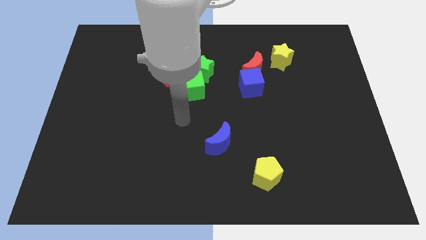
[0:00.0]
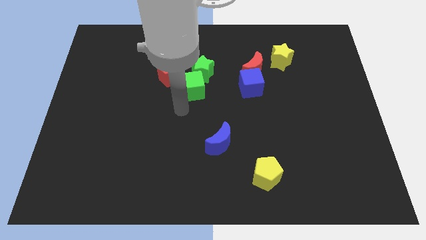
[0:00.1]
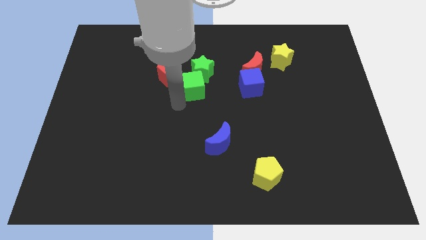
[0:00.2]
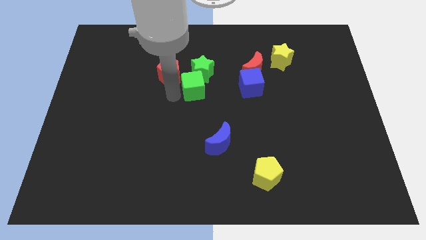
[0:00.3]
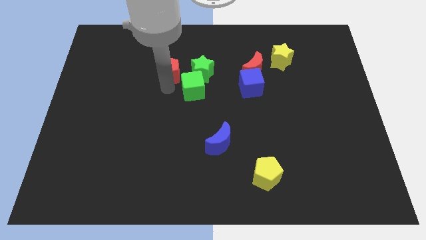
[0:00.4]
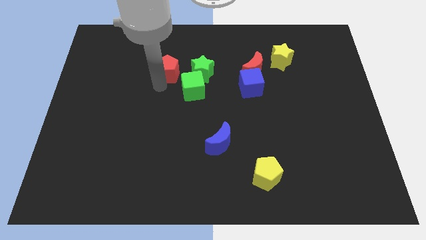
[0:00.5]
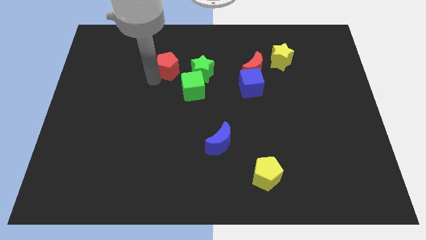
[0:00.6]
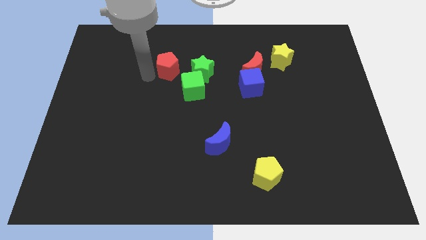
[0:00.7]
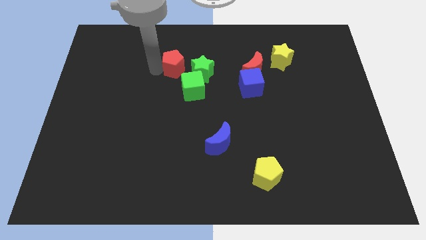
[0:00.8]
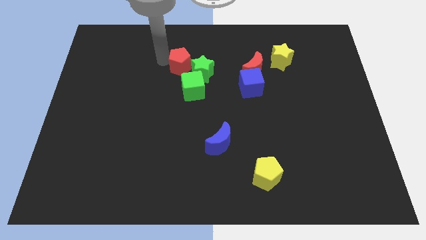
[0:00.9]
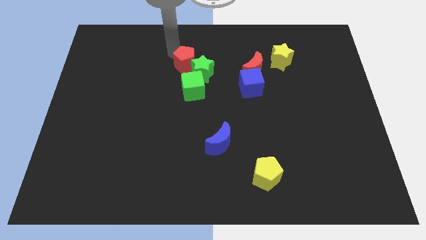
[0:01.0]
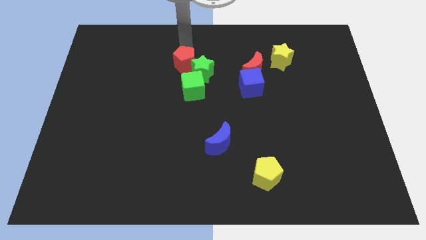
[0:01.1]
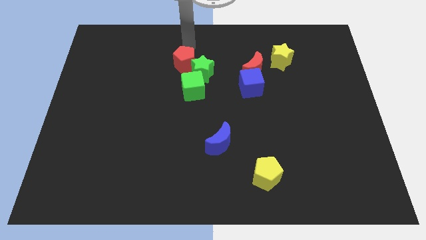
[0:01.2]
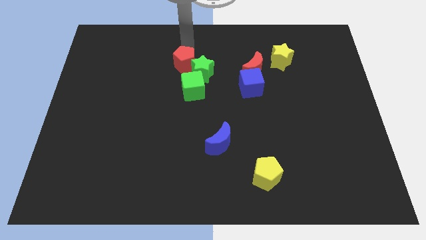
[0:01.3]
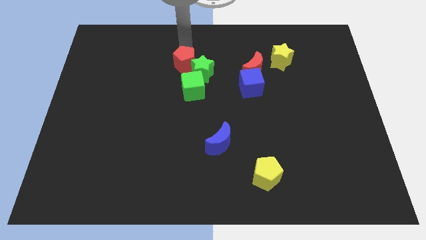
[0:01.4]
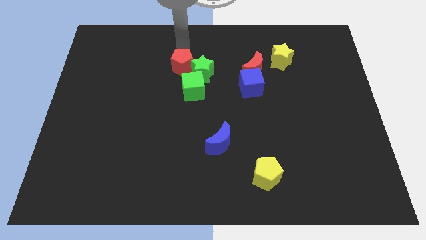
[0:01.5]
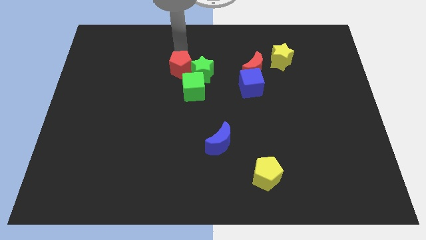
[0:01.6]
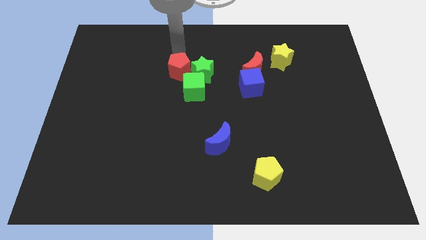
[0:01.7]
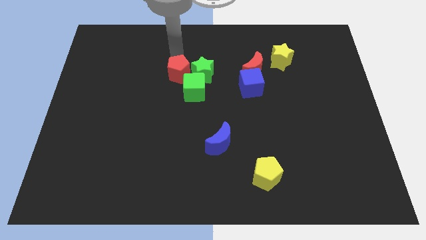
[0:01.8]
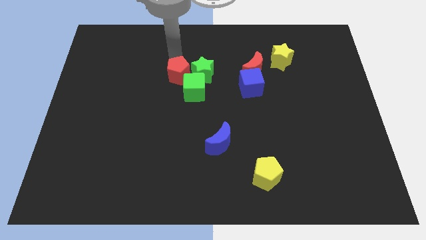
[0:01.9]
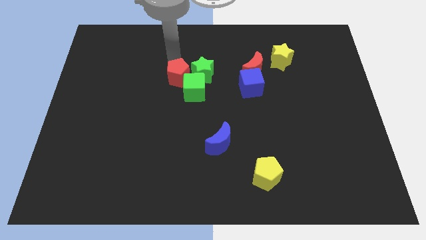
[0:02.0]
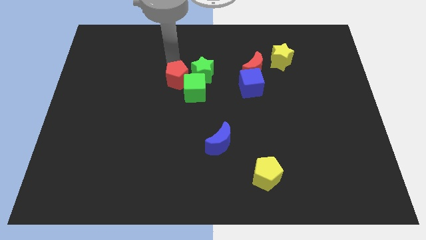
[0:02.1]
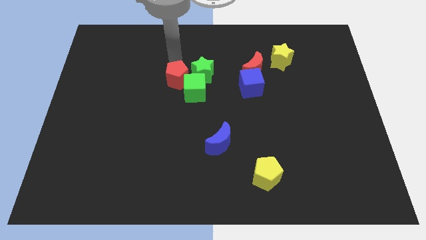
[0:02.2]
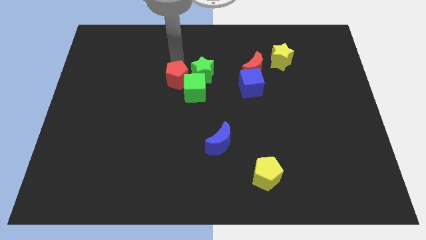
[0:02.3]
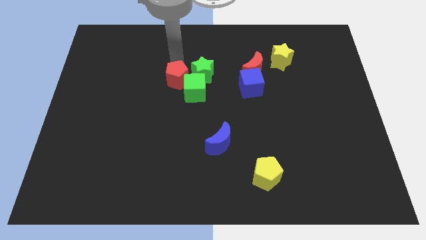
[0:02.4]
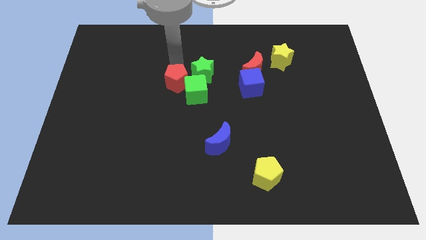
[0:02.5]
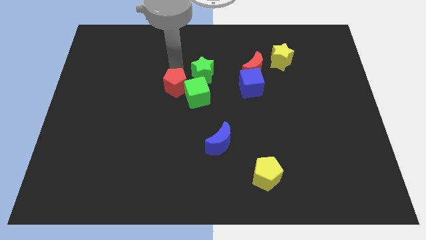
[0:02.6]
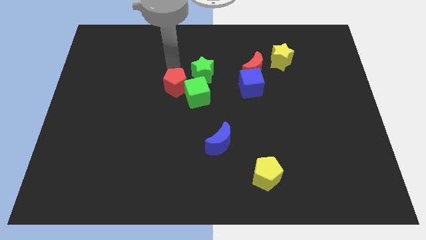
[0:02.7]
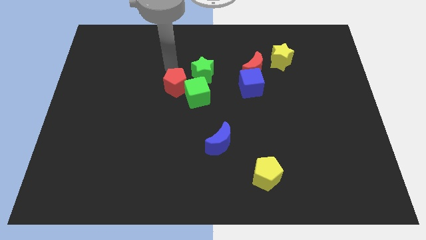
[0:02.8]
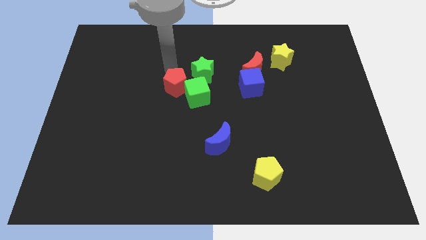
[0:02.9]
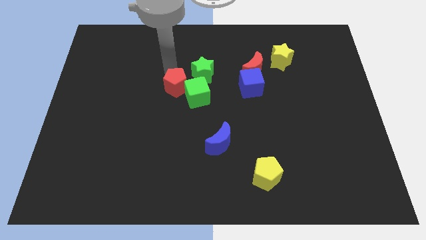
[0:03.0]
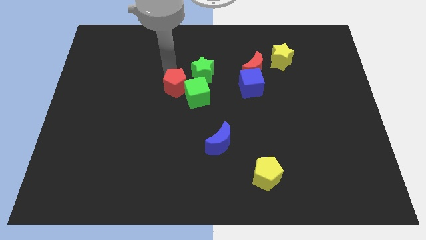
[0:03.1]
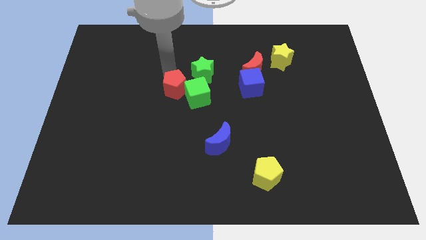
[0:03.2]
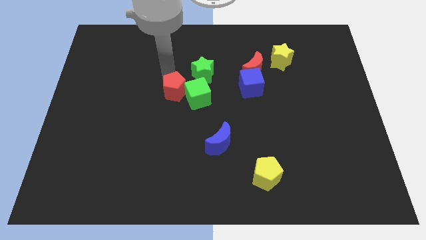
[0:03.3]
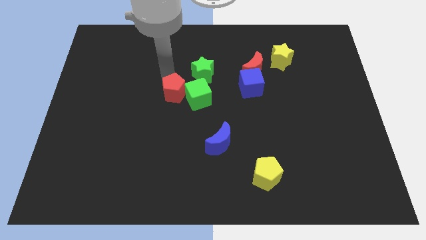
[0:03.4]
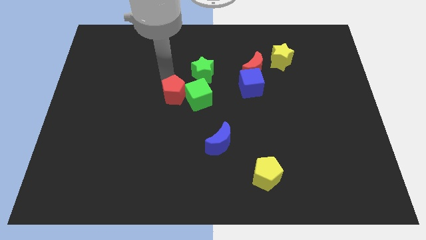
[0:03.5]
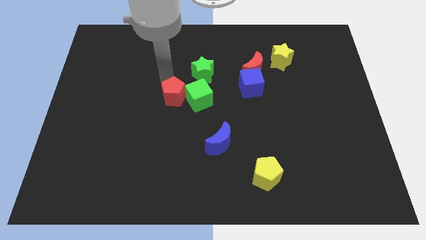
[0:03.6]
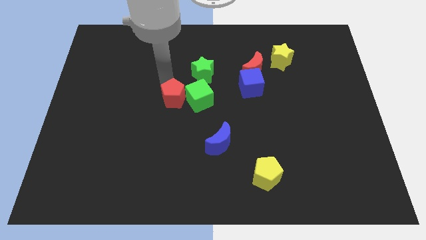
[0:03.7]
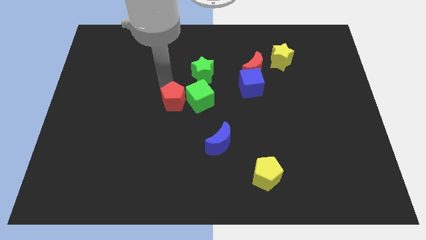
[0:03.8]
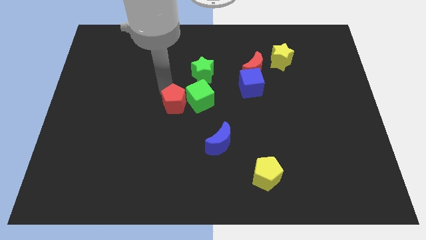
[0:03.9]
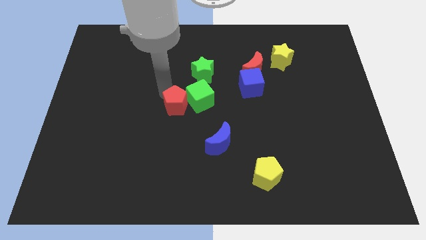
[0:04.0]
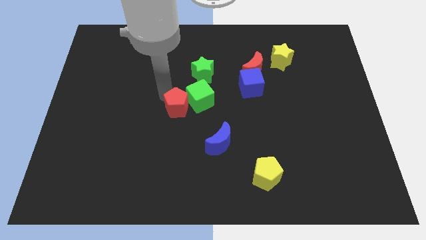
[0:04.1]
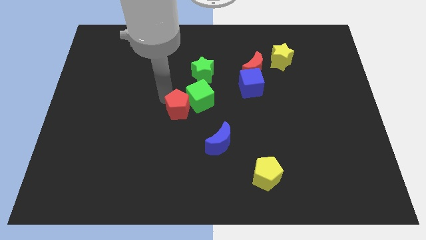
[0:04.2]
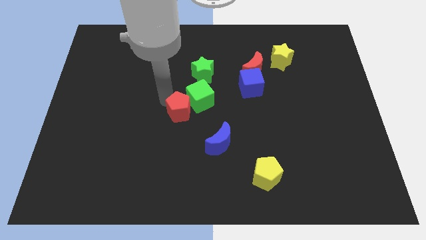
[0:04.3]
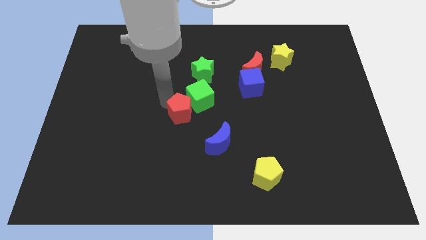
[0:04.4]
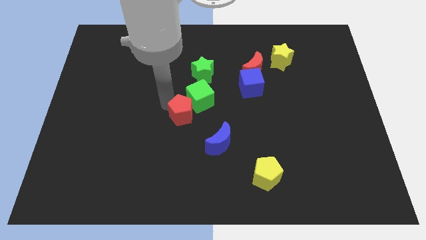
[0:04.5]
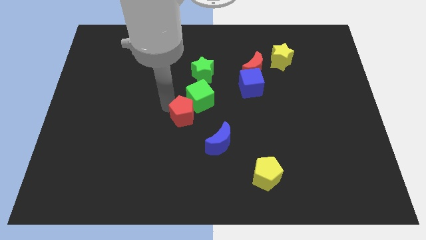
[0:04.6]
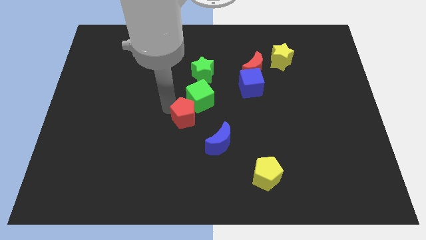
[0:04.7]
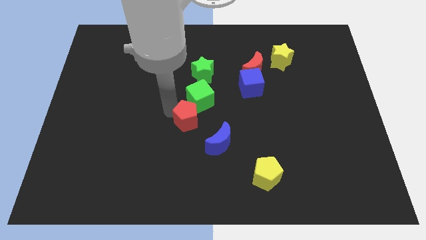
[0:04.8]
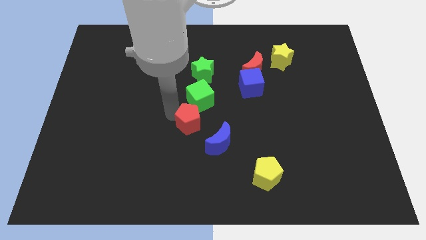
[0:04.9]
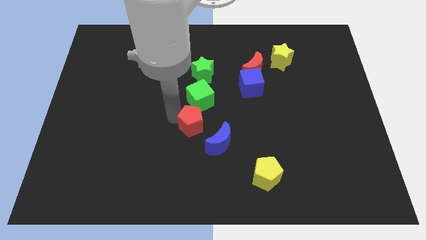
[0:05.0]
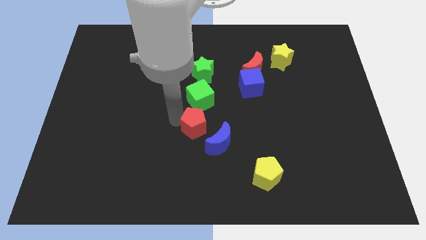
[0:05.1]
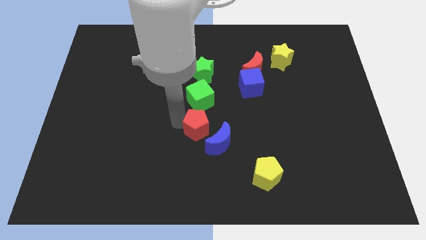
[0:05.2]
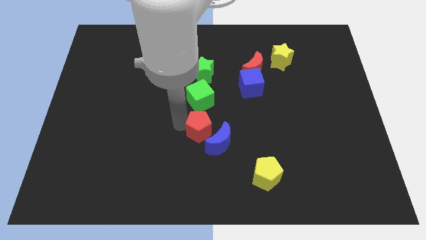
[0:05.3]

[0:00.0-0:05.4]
move the red pentagon next to the blue moon

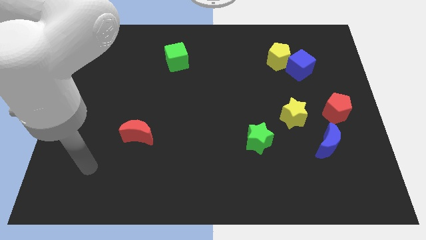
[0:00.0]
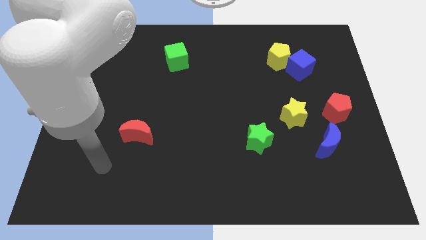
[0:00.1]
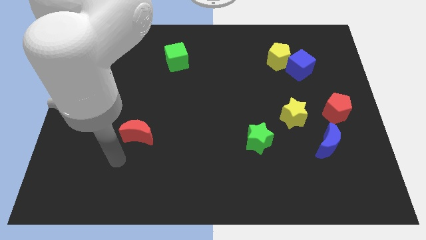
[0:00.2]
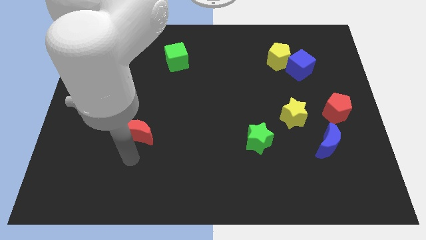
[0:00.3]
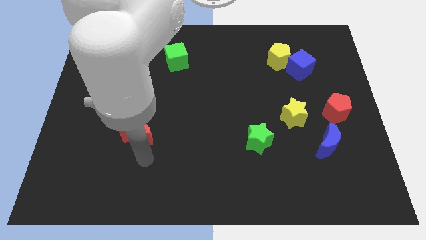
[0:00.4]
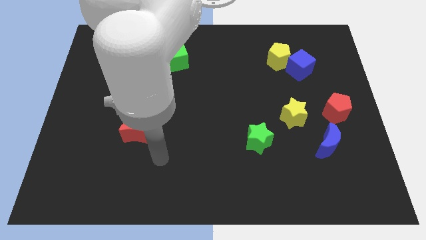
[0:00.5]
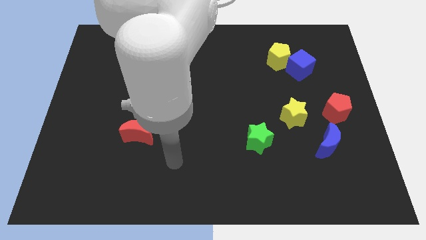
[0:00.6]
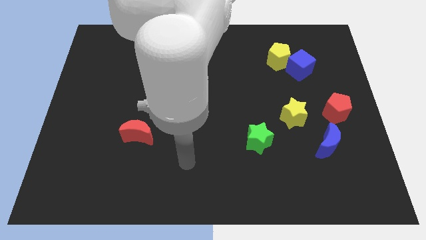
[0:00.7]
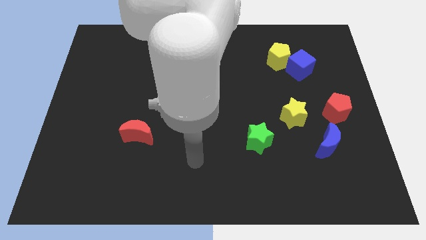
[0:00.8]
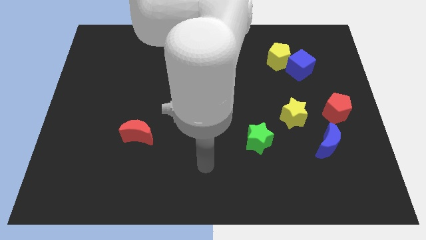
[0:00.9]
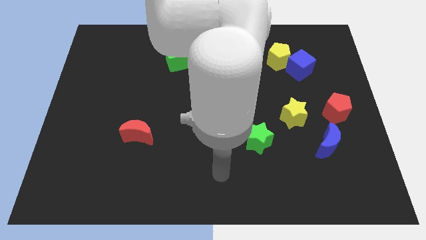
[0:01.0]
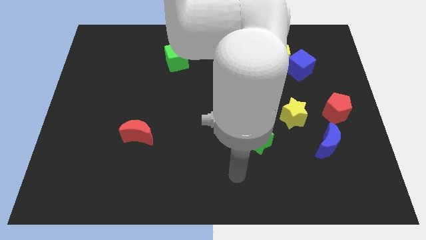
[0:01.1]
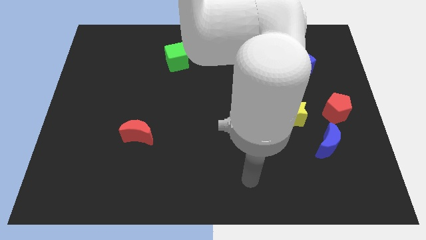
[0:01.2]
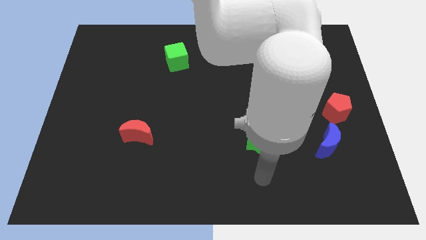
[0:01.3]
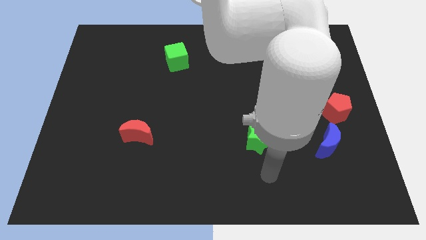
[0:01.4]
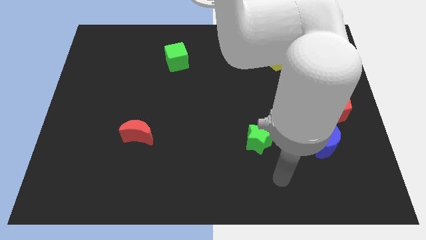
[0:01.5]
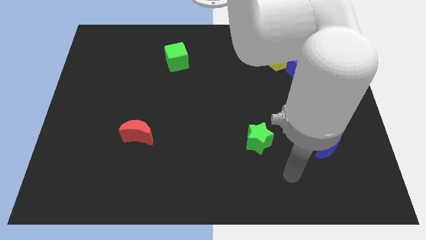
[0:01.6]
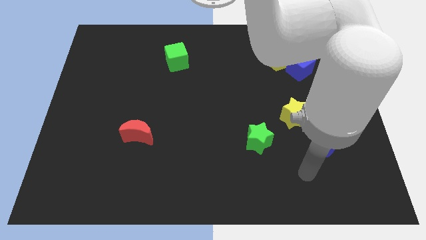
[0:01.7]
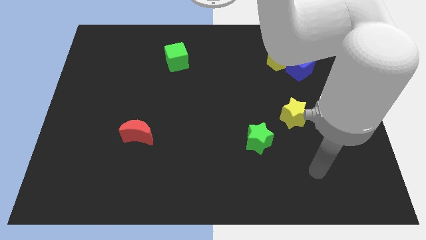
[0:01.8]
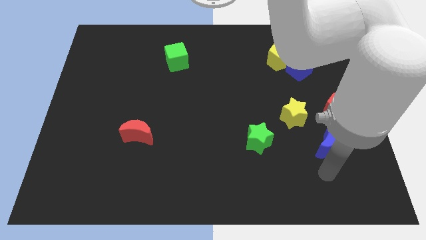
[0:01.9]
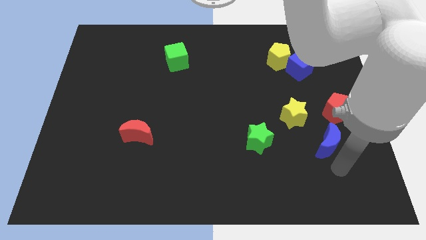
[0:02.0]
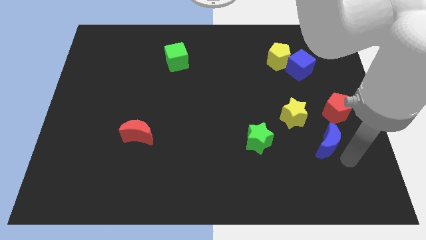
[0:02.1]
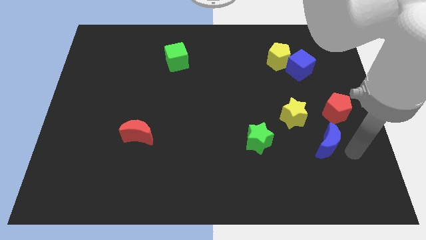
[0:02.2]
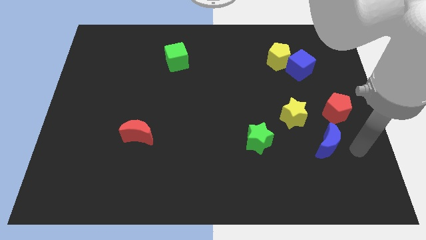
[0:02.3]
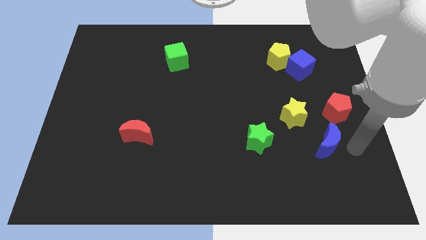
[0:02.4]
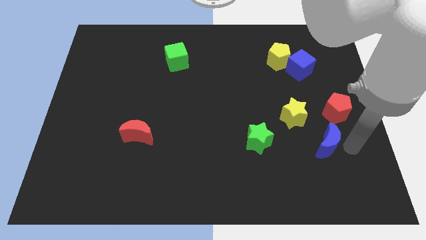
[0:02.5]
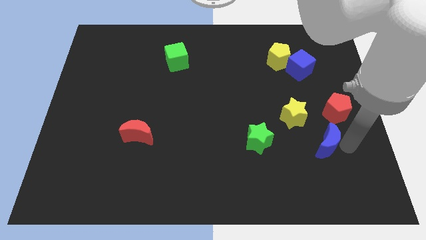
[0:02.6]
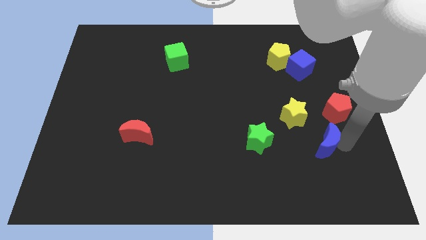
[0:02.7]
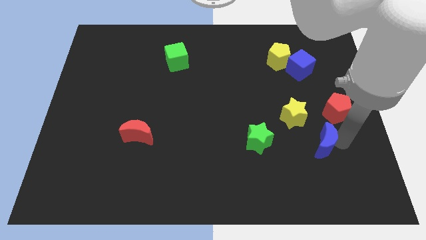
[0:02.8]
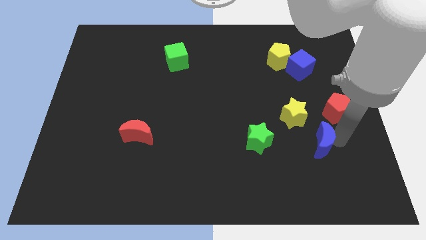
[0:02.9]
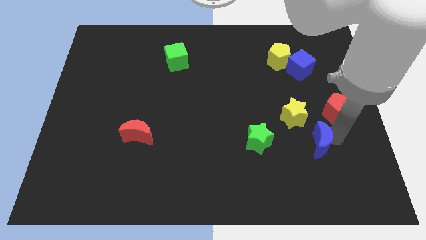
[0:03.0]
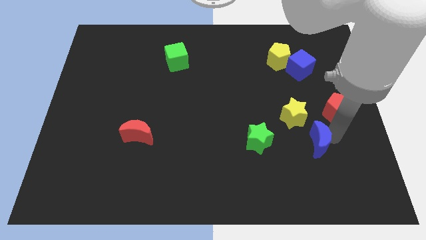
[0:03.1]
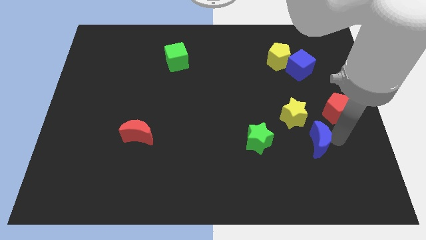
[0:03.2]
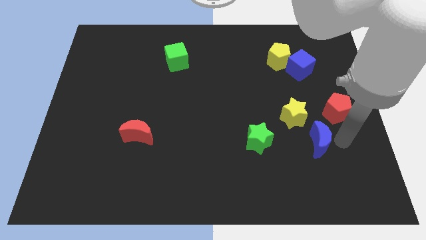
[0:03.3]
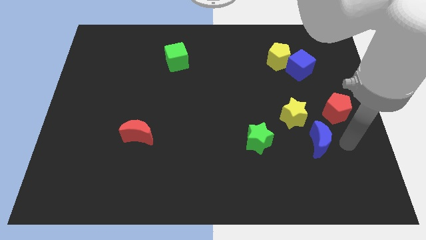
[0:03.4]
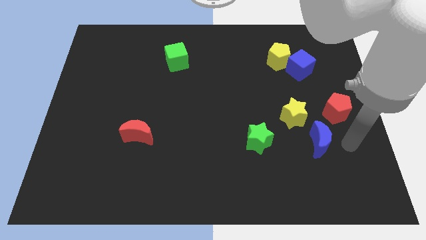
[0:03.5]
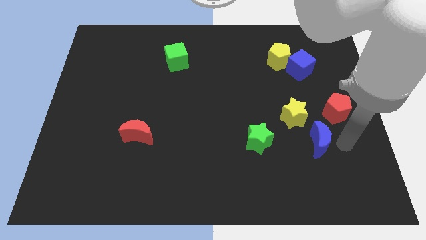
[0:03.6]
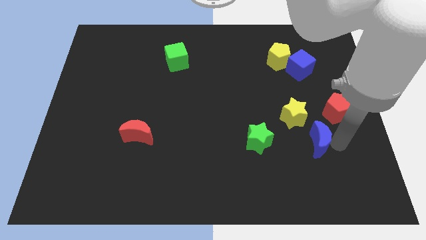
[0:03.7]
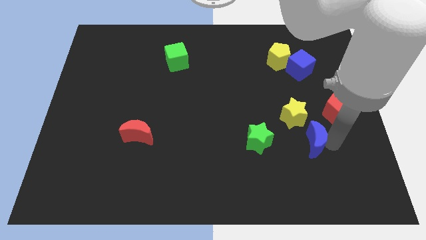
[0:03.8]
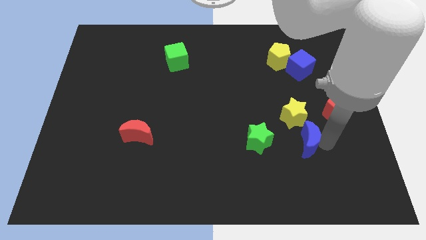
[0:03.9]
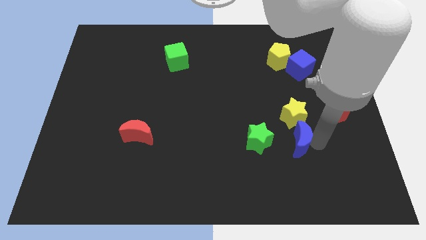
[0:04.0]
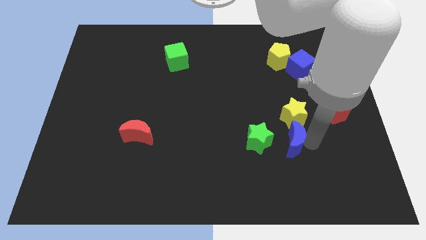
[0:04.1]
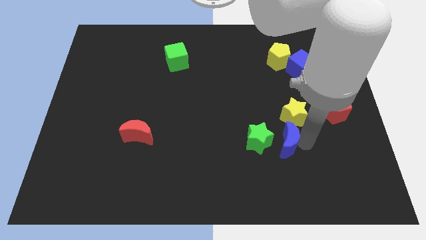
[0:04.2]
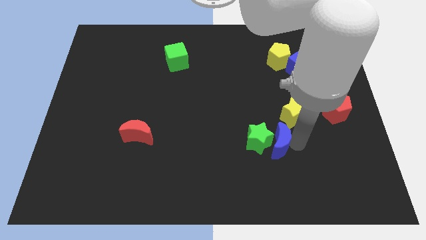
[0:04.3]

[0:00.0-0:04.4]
push the blue moon to the green star
